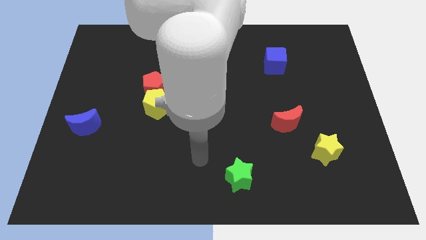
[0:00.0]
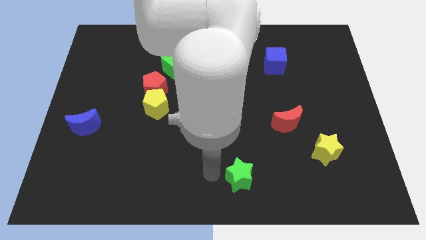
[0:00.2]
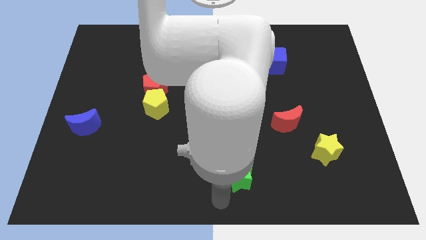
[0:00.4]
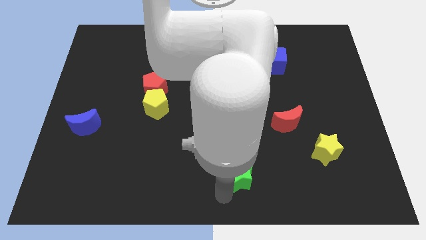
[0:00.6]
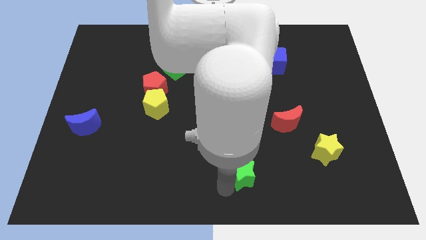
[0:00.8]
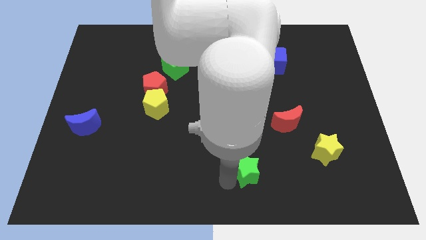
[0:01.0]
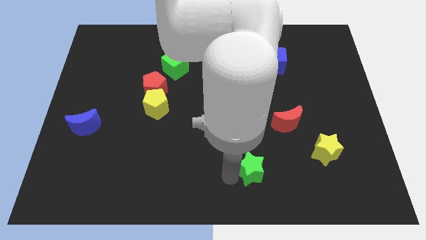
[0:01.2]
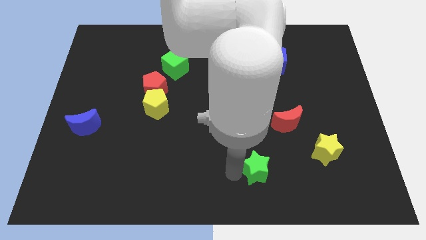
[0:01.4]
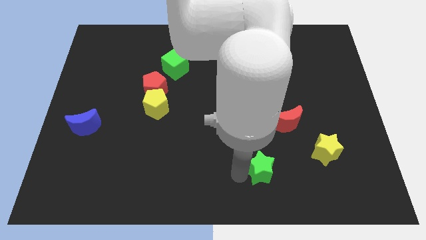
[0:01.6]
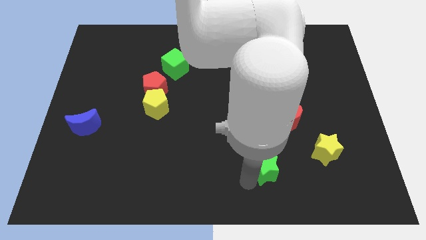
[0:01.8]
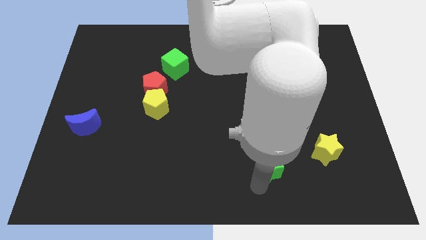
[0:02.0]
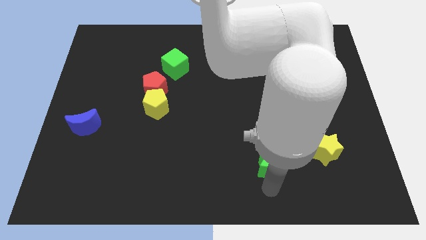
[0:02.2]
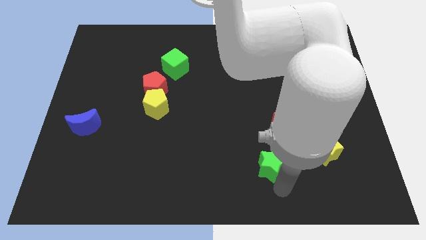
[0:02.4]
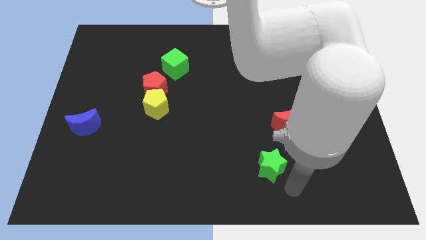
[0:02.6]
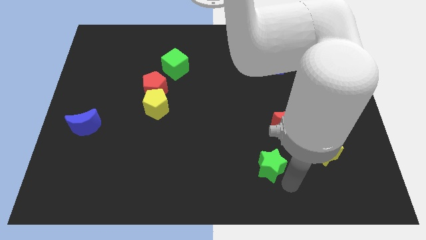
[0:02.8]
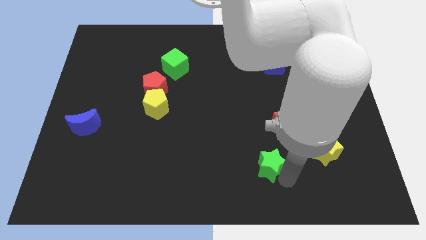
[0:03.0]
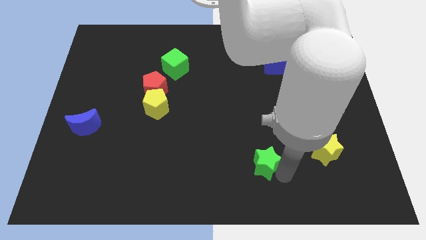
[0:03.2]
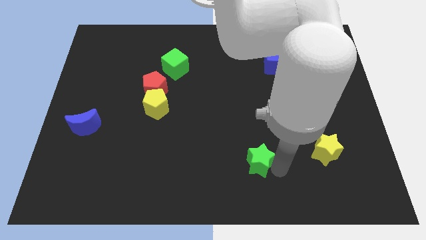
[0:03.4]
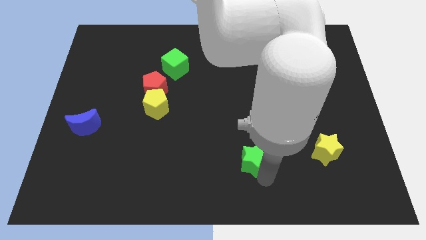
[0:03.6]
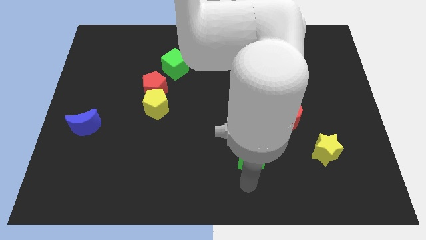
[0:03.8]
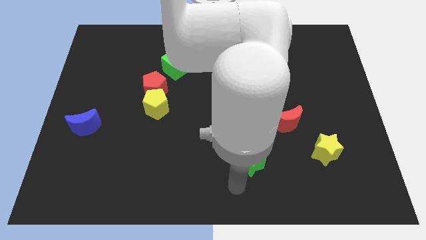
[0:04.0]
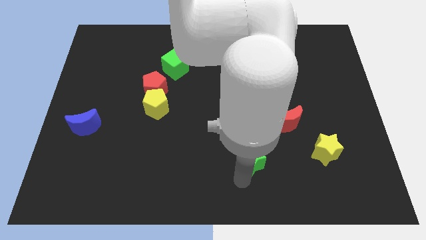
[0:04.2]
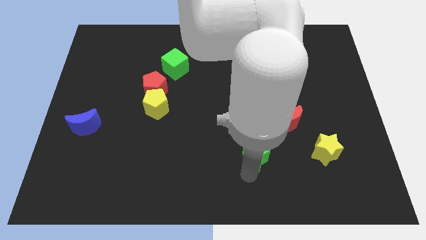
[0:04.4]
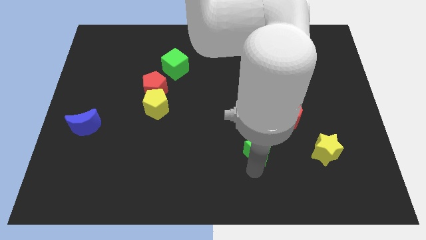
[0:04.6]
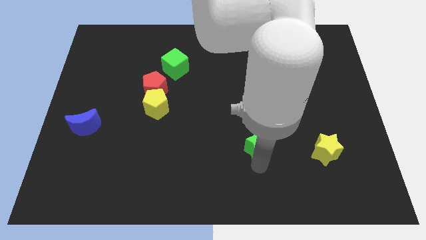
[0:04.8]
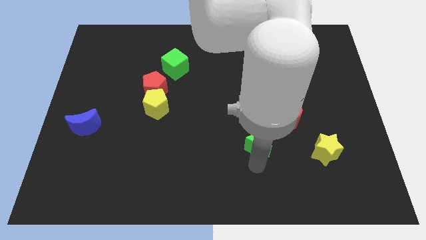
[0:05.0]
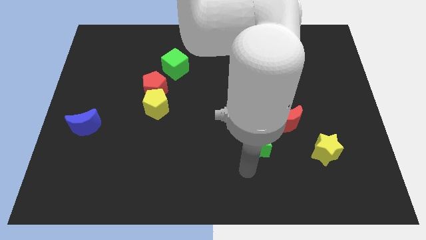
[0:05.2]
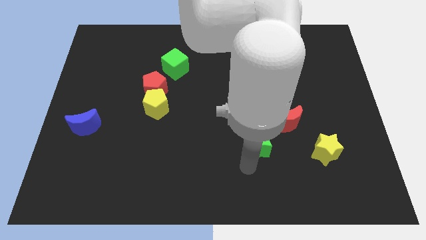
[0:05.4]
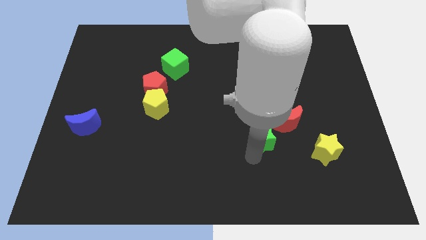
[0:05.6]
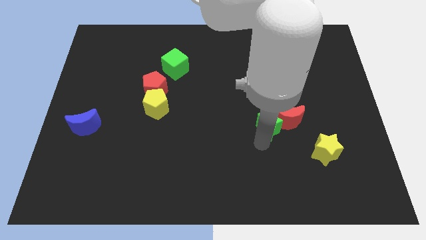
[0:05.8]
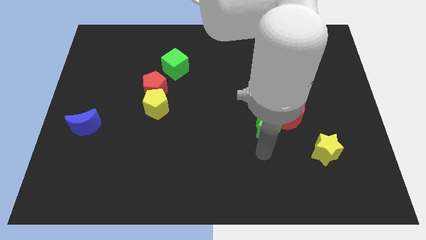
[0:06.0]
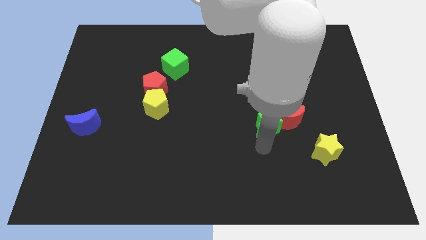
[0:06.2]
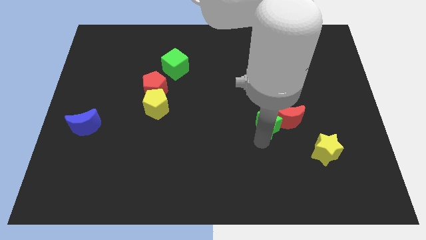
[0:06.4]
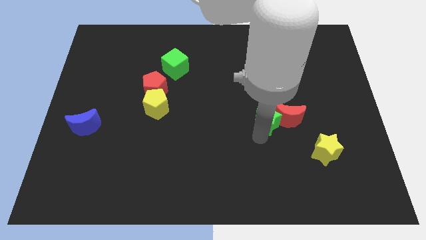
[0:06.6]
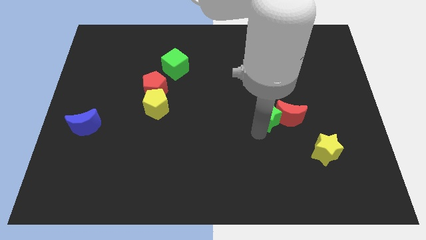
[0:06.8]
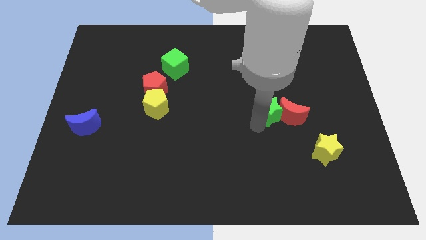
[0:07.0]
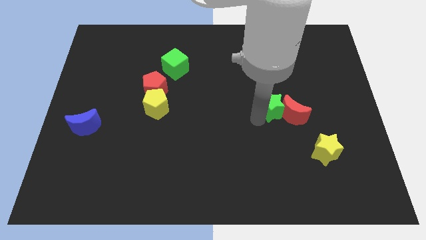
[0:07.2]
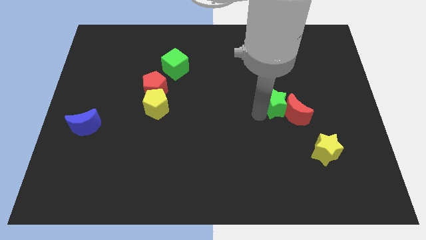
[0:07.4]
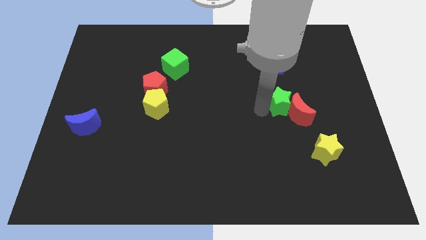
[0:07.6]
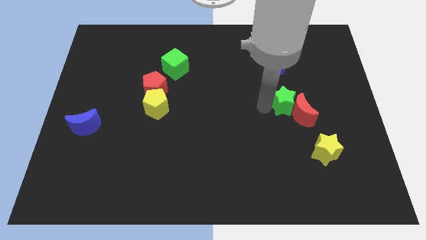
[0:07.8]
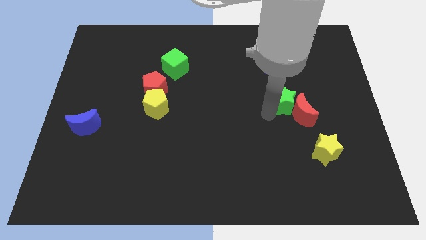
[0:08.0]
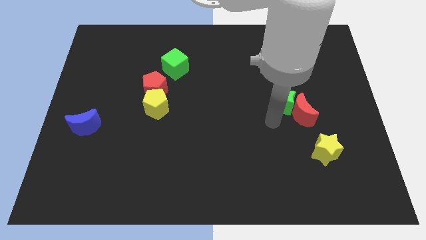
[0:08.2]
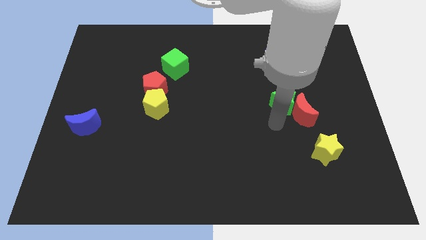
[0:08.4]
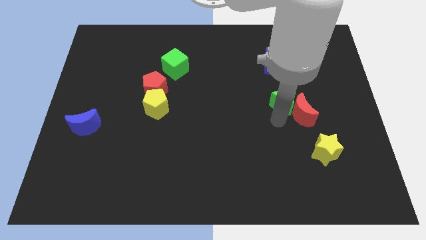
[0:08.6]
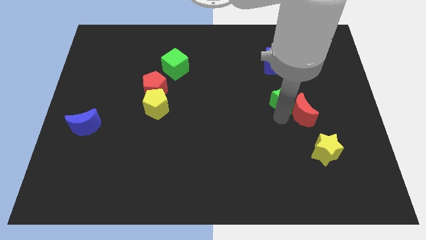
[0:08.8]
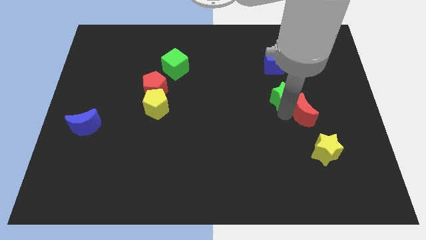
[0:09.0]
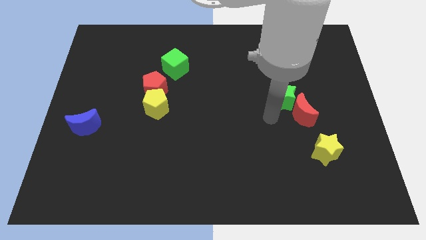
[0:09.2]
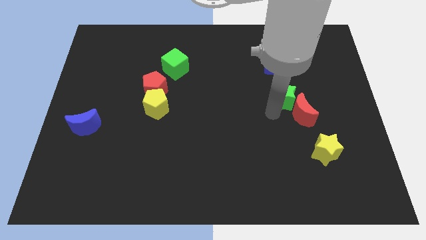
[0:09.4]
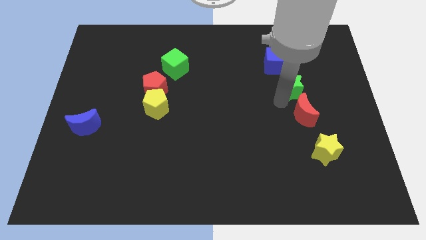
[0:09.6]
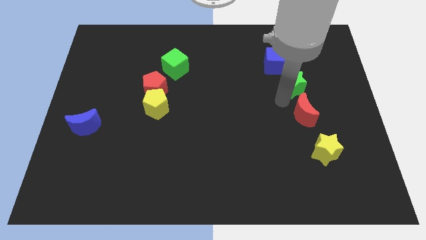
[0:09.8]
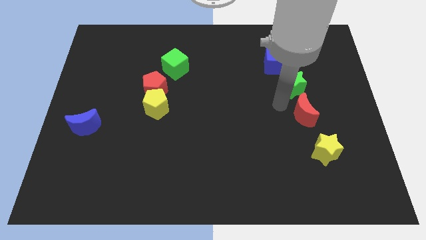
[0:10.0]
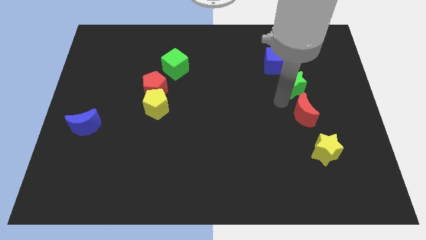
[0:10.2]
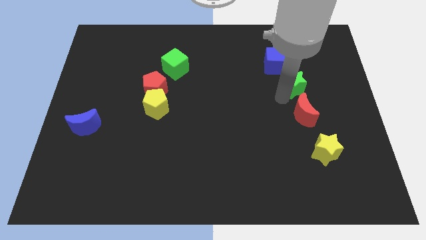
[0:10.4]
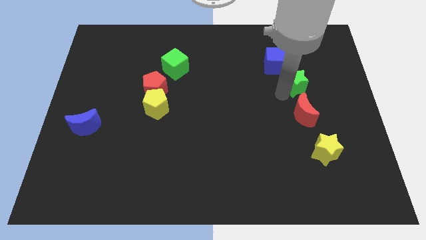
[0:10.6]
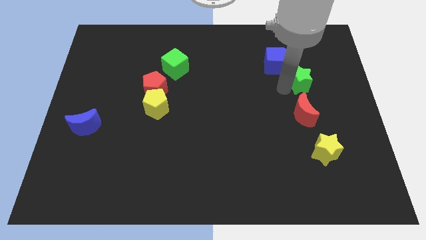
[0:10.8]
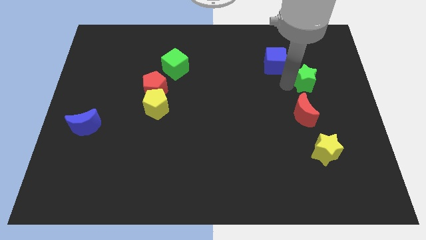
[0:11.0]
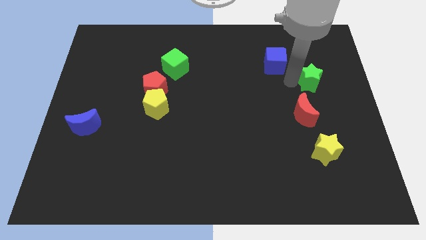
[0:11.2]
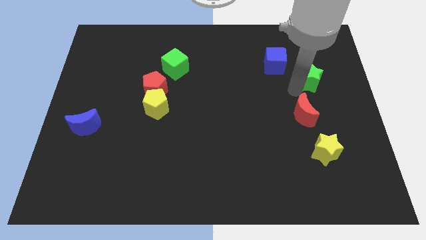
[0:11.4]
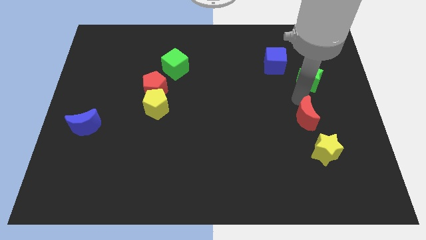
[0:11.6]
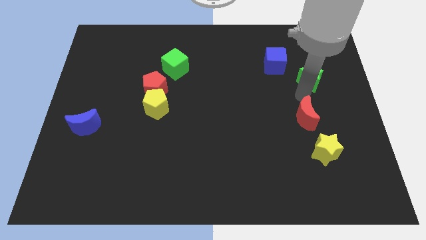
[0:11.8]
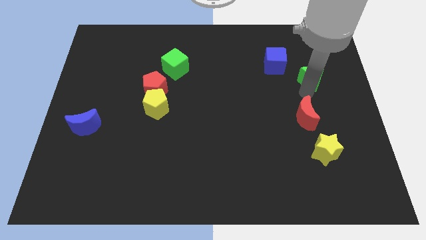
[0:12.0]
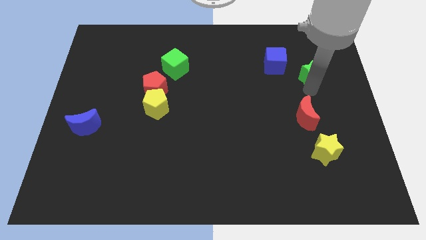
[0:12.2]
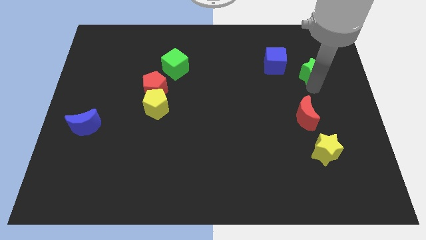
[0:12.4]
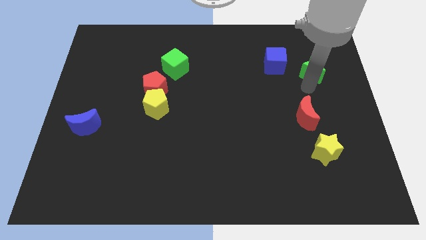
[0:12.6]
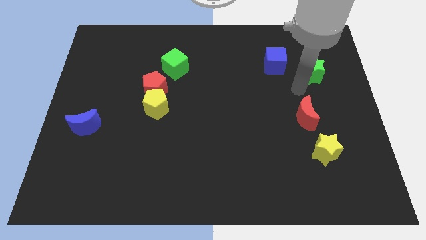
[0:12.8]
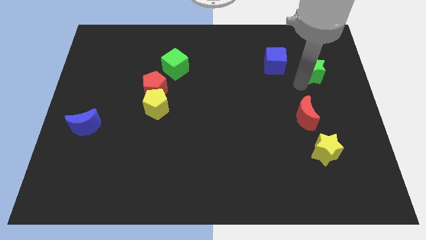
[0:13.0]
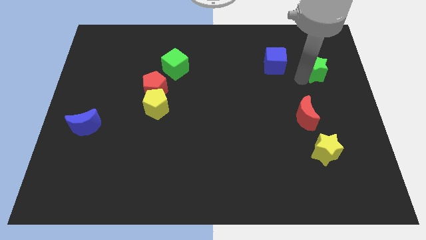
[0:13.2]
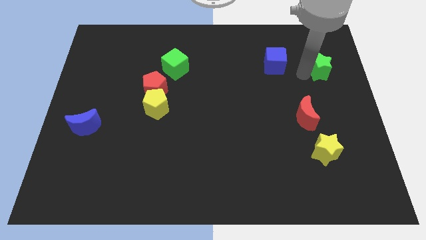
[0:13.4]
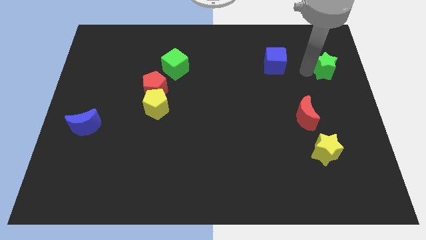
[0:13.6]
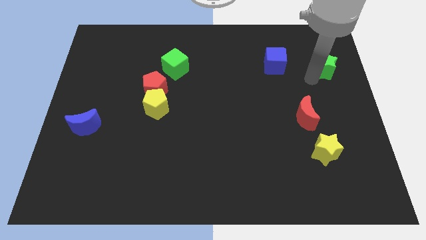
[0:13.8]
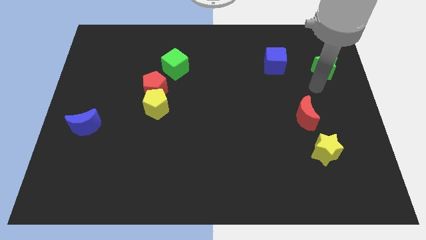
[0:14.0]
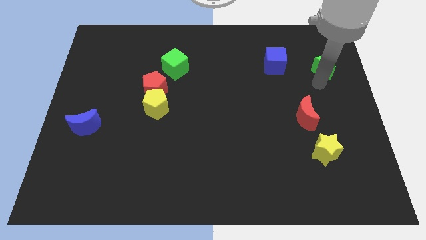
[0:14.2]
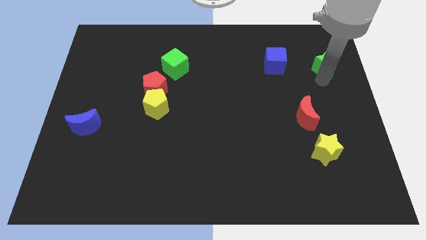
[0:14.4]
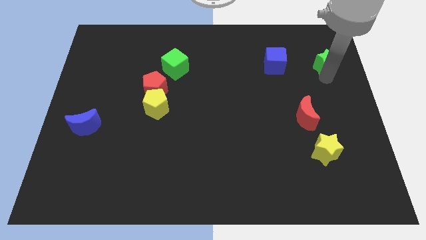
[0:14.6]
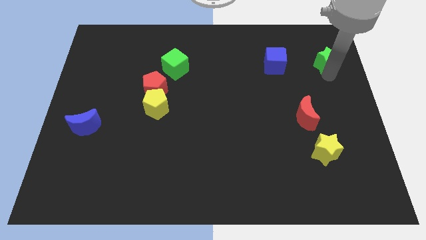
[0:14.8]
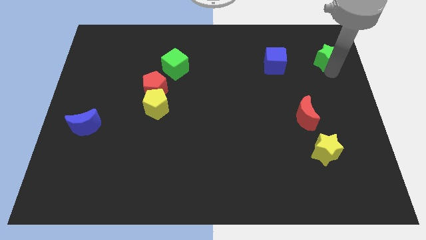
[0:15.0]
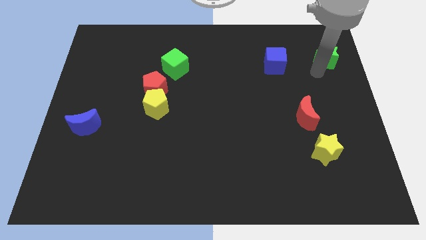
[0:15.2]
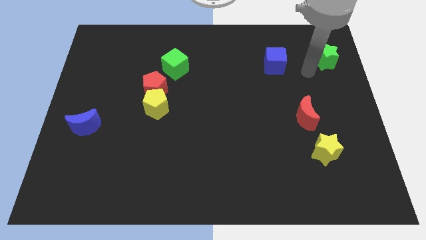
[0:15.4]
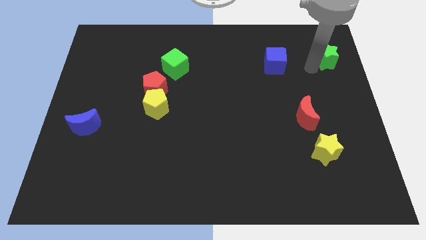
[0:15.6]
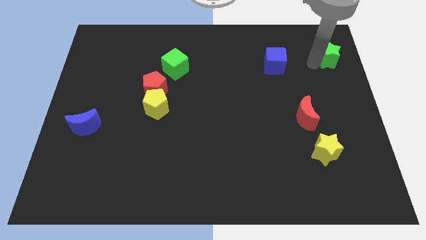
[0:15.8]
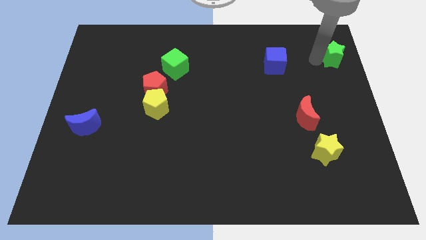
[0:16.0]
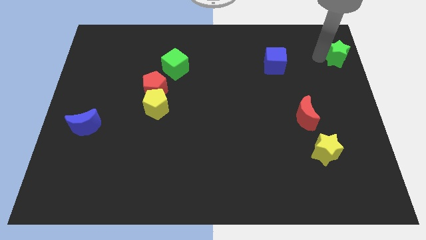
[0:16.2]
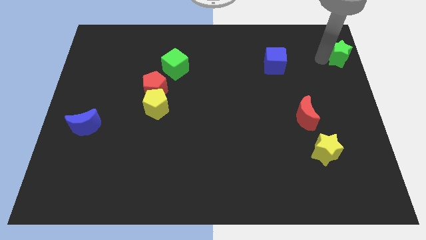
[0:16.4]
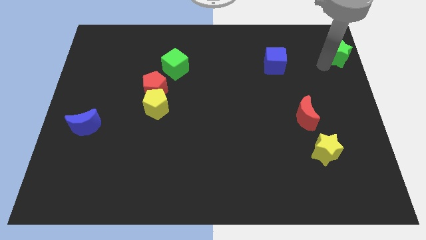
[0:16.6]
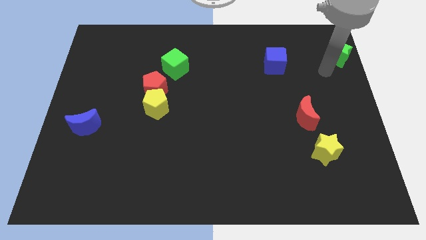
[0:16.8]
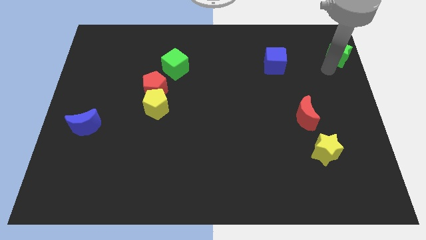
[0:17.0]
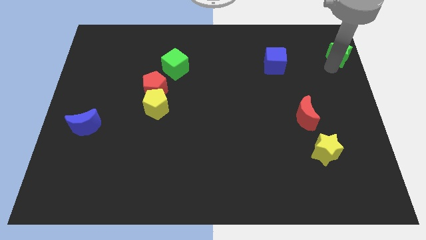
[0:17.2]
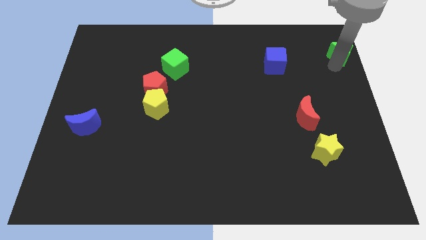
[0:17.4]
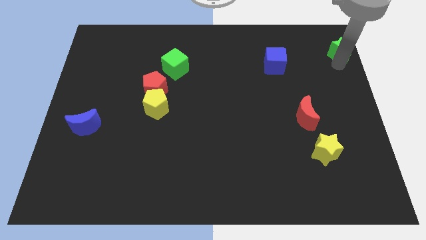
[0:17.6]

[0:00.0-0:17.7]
slide the green star to the top right
